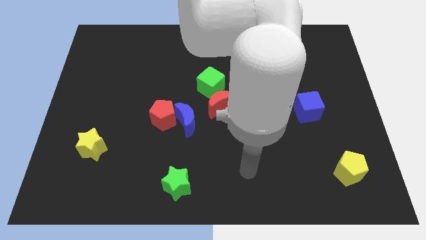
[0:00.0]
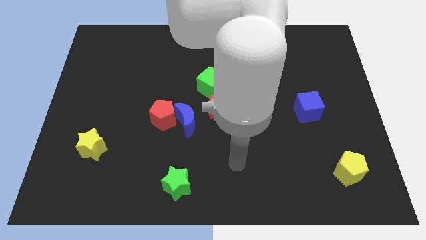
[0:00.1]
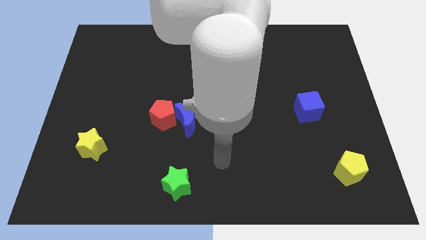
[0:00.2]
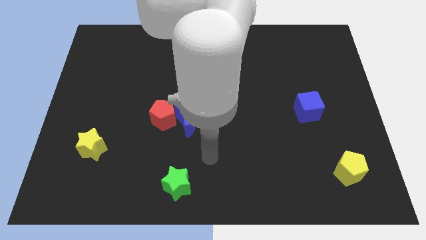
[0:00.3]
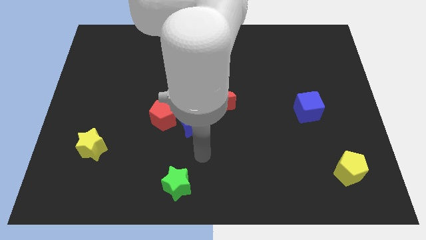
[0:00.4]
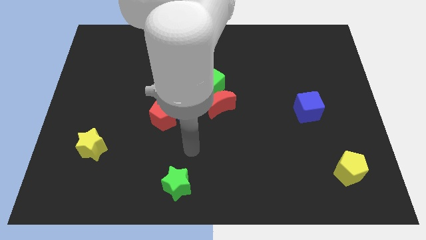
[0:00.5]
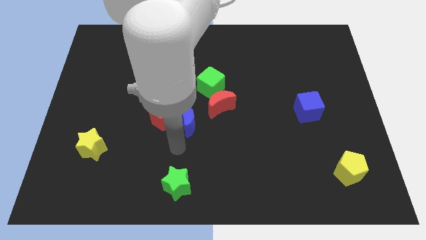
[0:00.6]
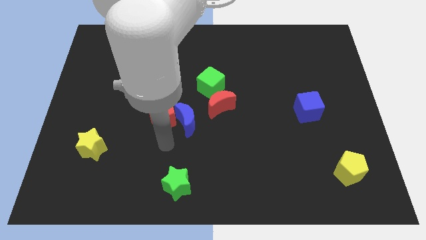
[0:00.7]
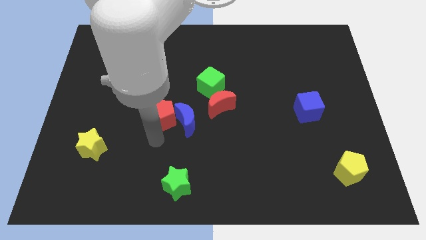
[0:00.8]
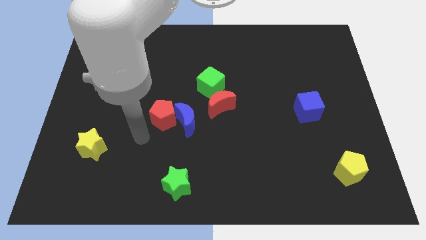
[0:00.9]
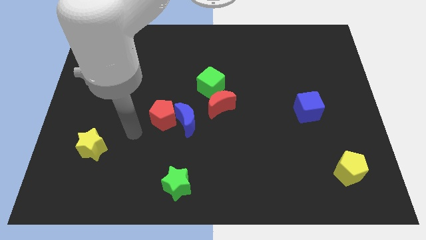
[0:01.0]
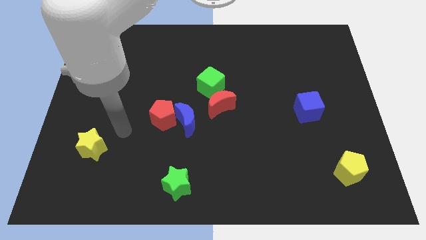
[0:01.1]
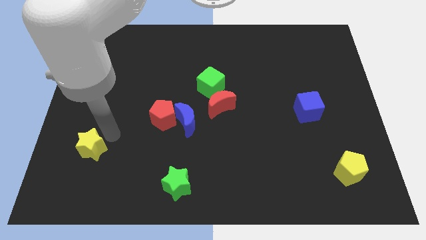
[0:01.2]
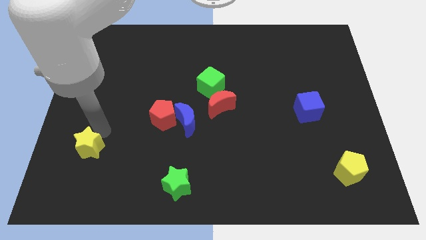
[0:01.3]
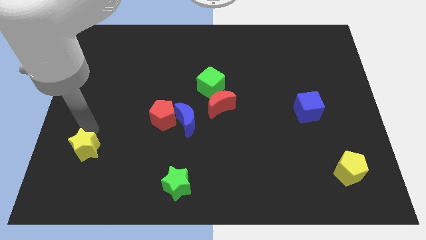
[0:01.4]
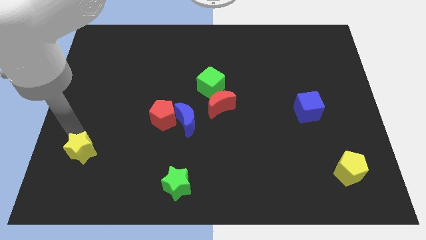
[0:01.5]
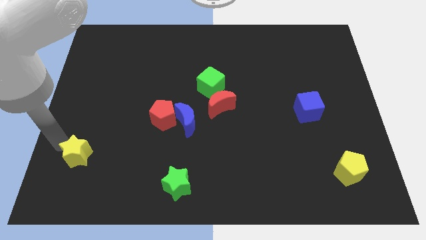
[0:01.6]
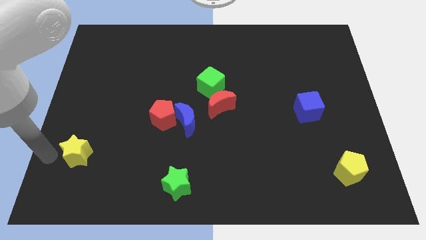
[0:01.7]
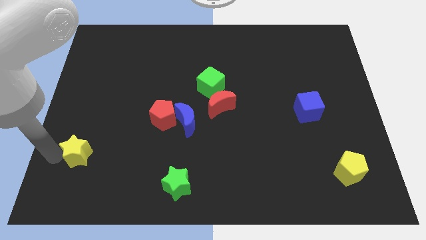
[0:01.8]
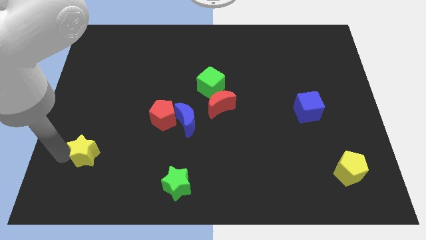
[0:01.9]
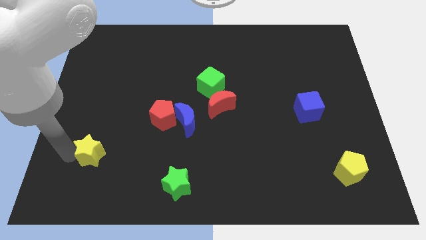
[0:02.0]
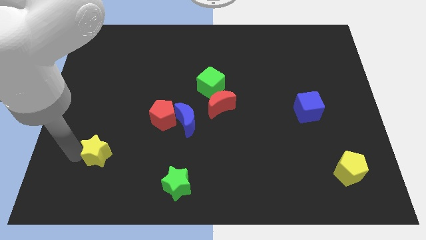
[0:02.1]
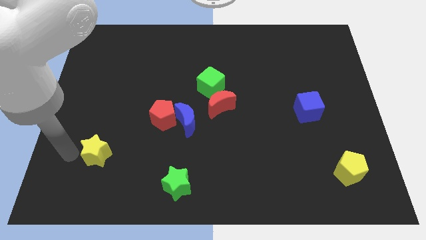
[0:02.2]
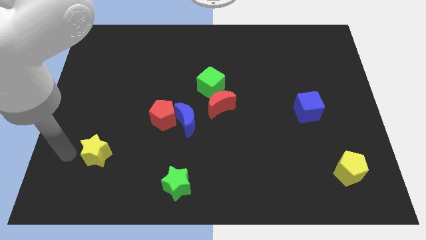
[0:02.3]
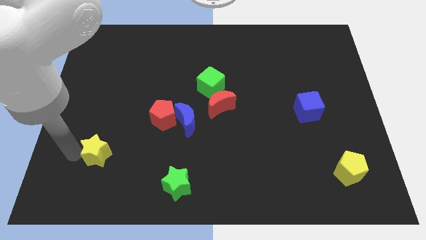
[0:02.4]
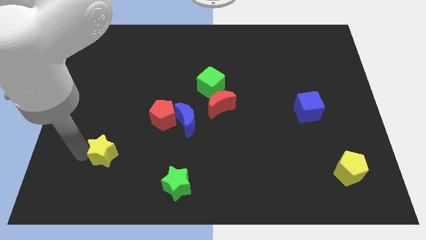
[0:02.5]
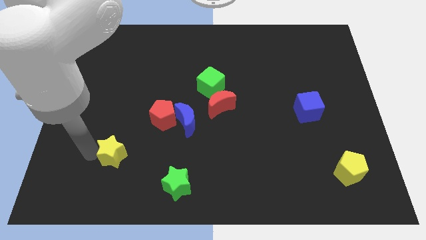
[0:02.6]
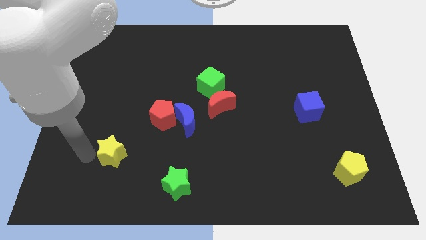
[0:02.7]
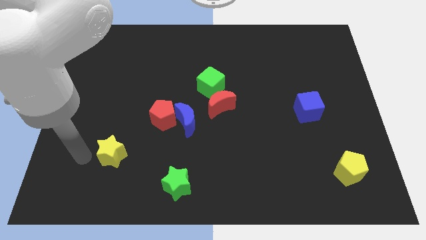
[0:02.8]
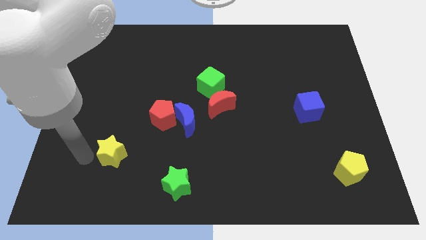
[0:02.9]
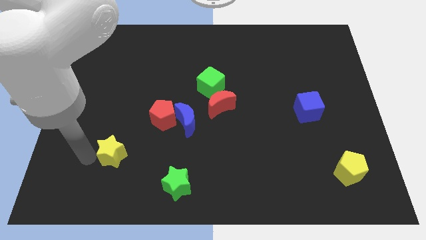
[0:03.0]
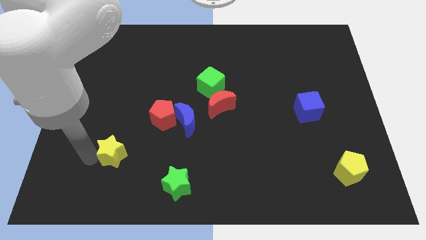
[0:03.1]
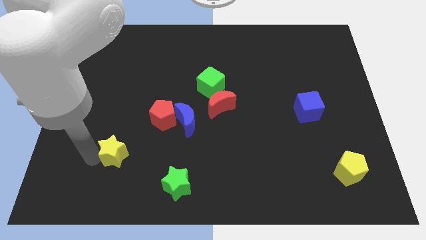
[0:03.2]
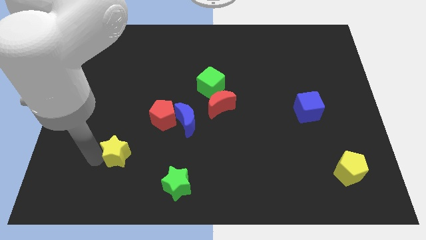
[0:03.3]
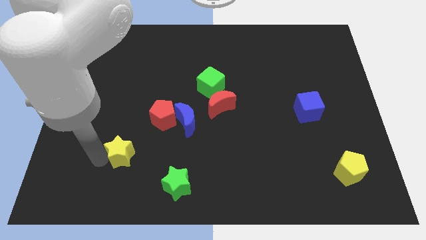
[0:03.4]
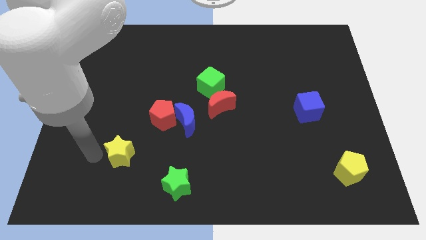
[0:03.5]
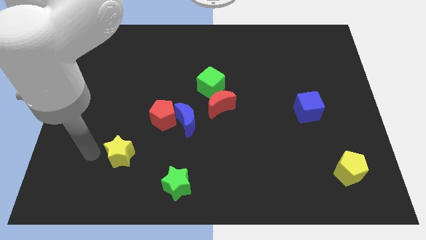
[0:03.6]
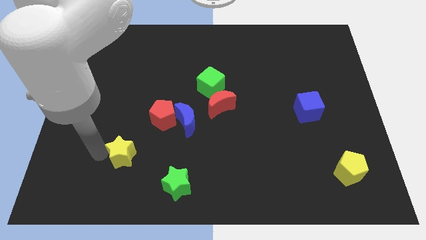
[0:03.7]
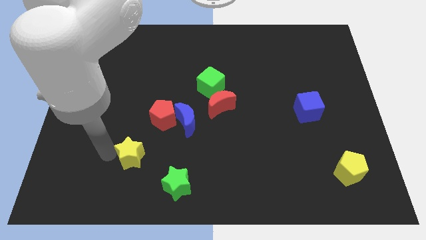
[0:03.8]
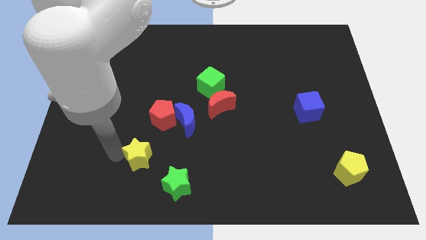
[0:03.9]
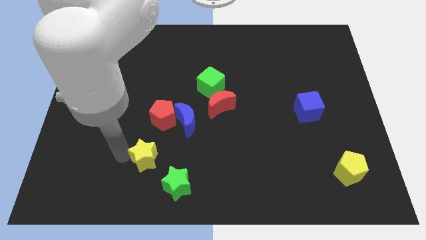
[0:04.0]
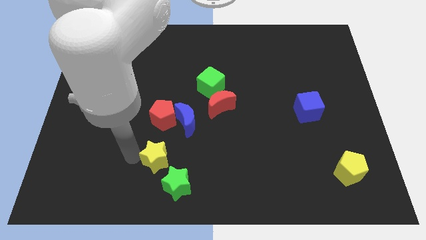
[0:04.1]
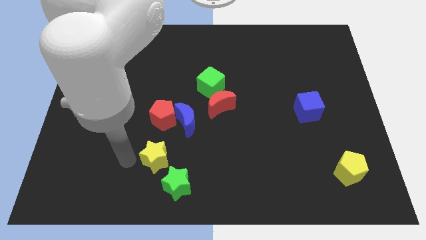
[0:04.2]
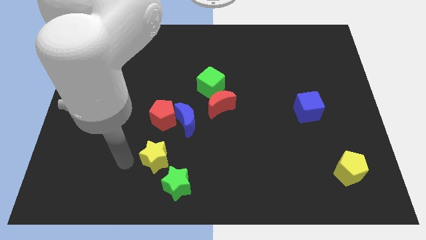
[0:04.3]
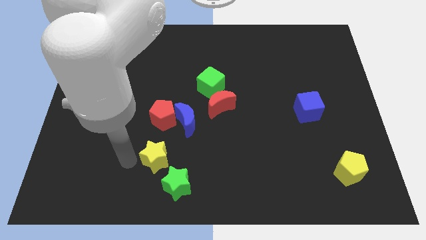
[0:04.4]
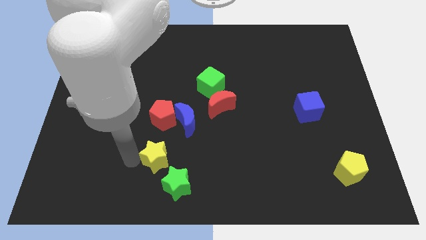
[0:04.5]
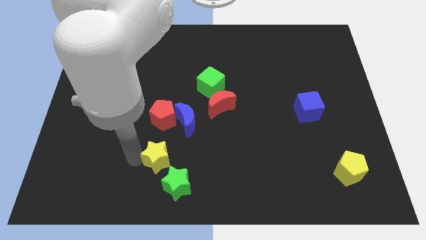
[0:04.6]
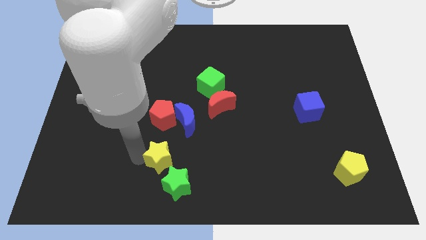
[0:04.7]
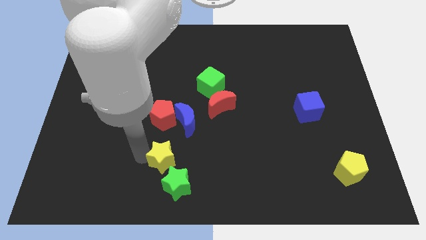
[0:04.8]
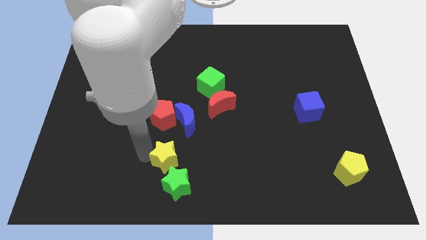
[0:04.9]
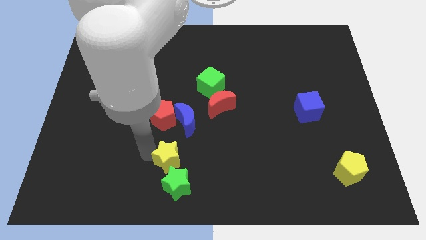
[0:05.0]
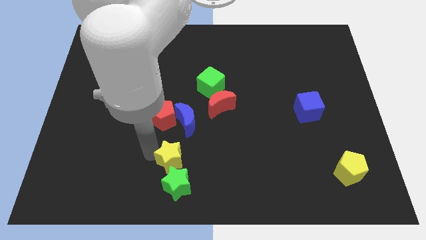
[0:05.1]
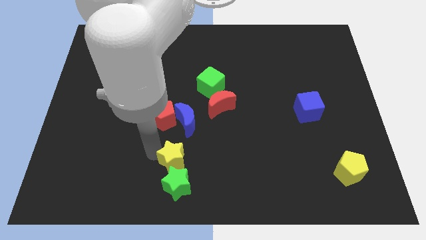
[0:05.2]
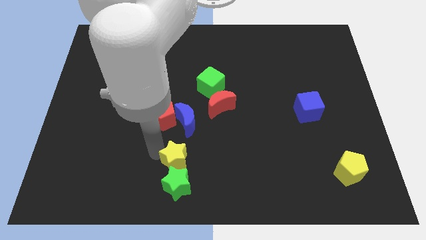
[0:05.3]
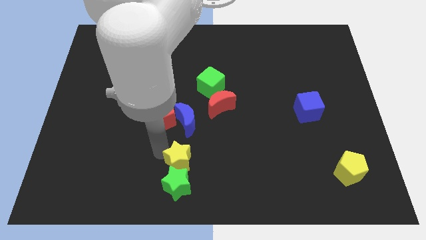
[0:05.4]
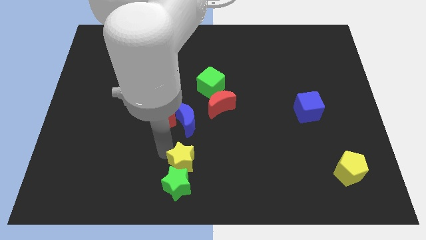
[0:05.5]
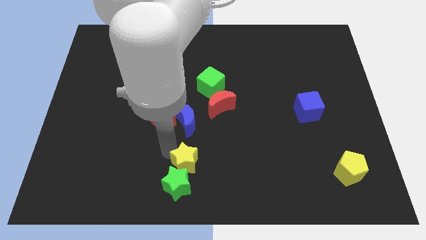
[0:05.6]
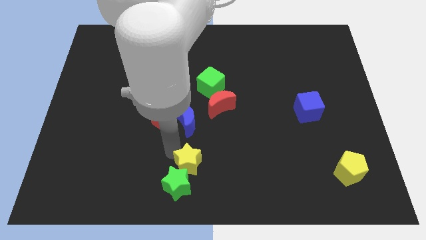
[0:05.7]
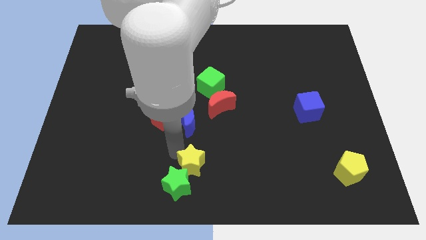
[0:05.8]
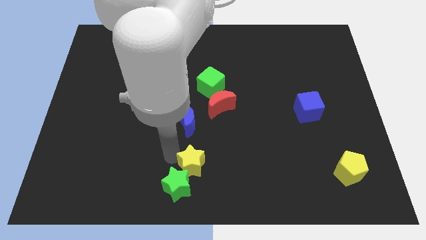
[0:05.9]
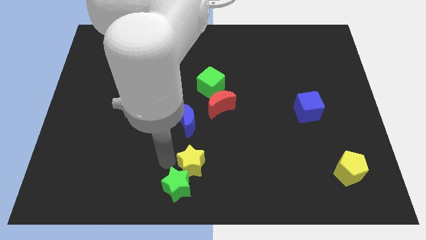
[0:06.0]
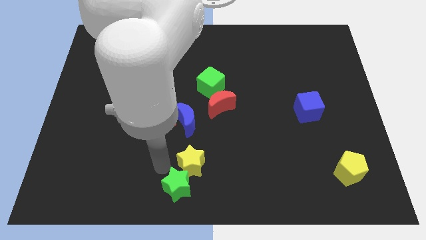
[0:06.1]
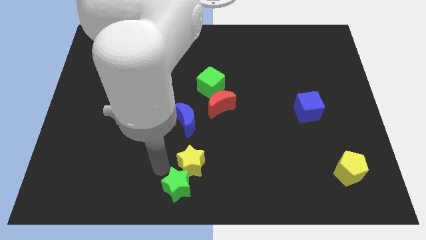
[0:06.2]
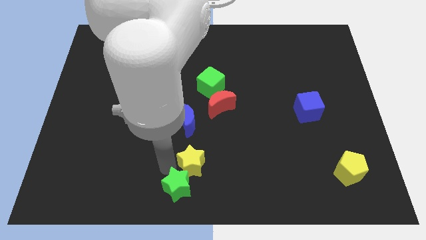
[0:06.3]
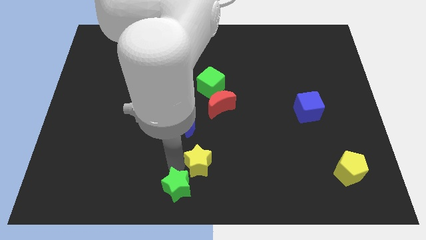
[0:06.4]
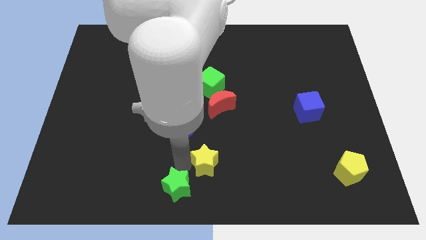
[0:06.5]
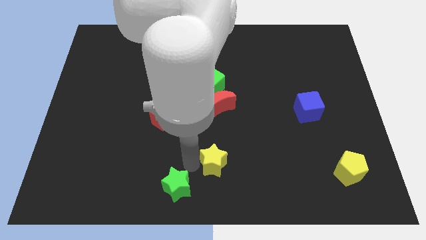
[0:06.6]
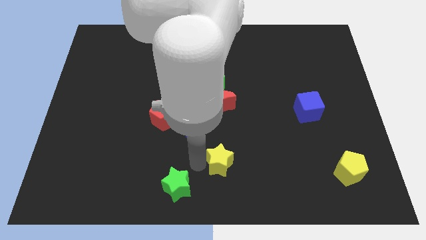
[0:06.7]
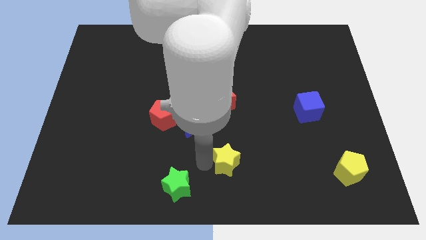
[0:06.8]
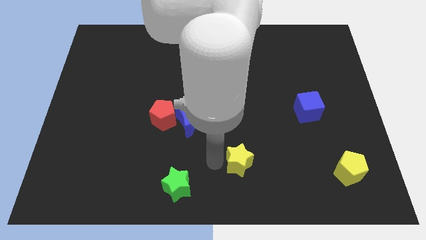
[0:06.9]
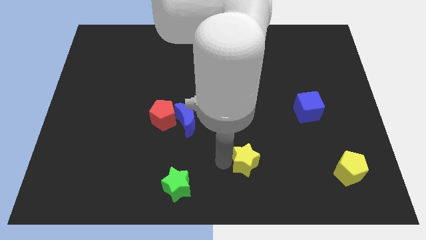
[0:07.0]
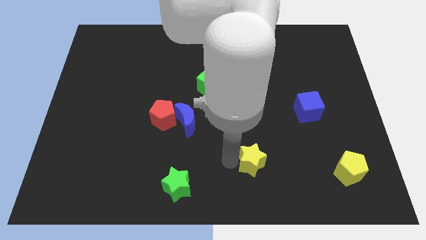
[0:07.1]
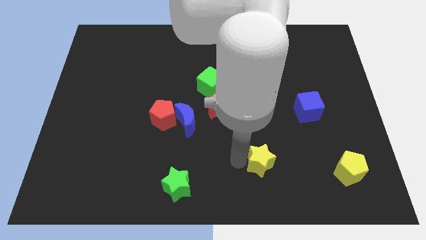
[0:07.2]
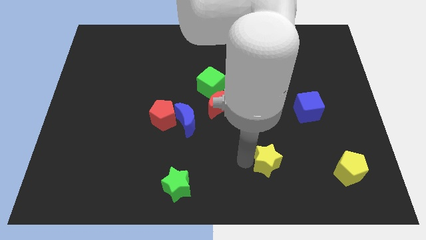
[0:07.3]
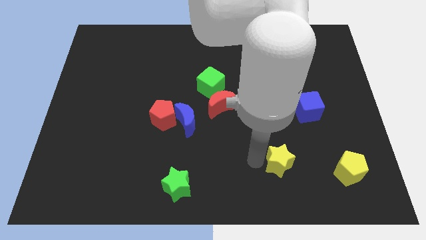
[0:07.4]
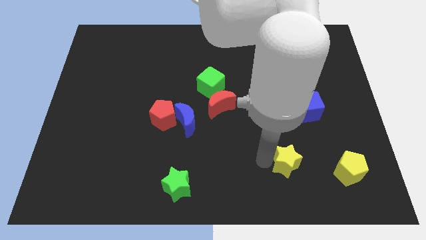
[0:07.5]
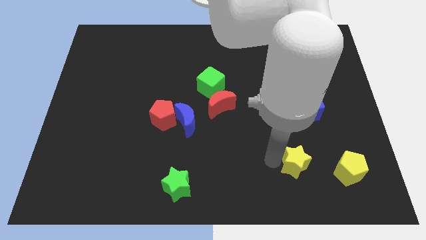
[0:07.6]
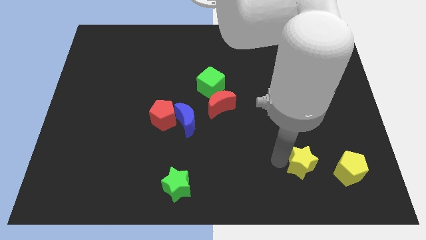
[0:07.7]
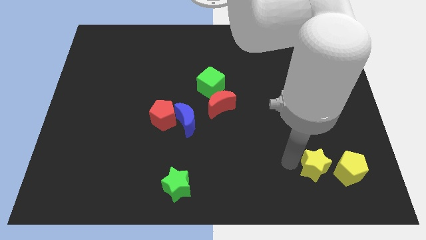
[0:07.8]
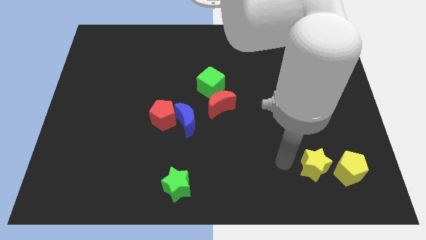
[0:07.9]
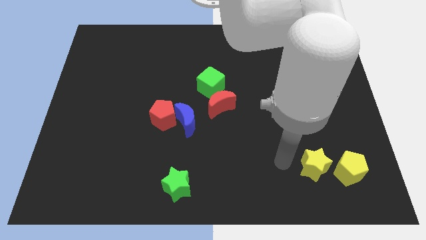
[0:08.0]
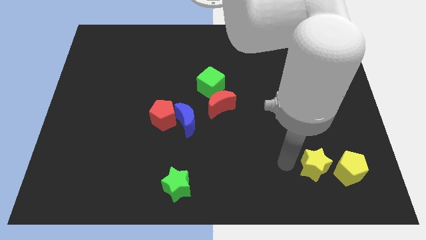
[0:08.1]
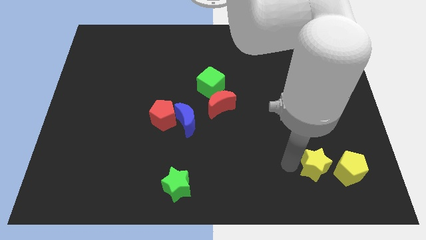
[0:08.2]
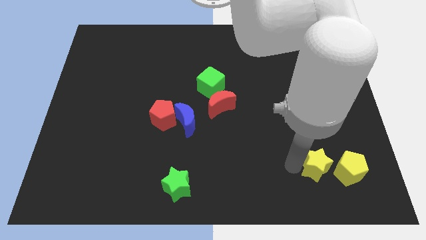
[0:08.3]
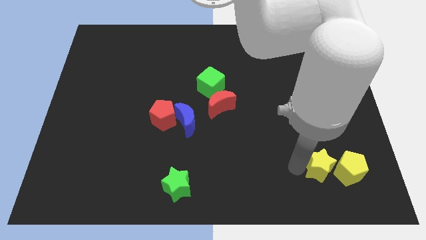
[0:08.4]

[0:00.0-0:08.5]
push the yellow star to the yellow pentagon
